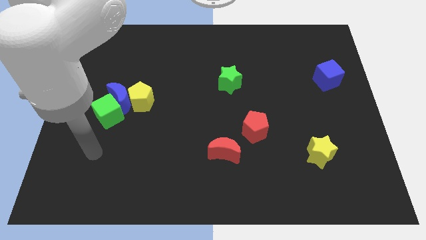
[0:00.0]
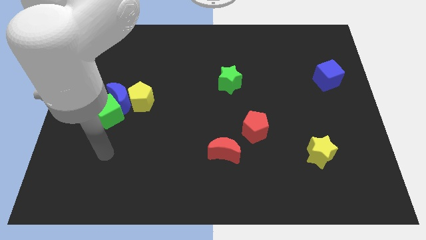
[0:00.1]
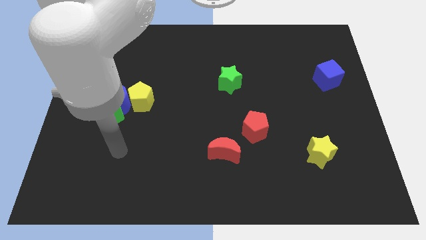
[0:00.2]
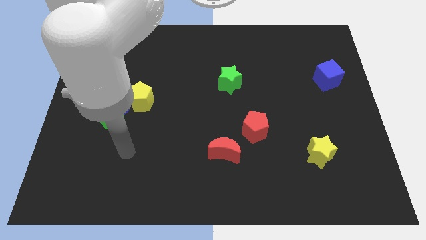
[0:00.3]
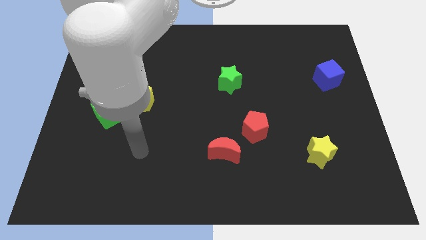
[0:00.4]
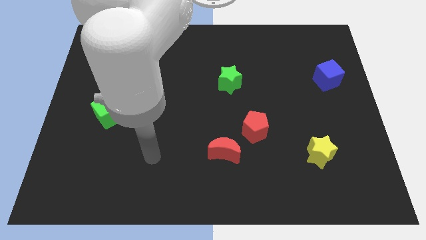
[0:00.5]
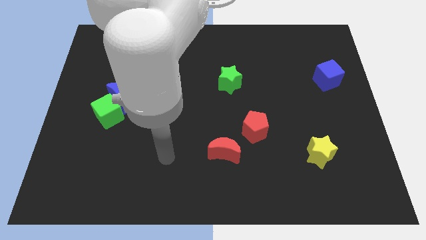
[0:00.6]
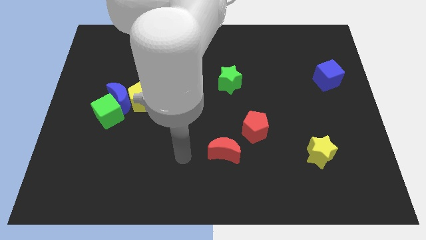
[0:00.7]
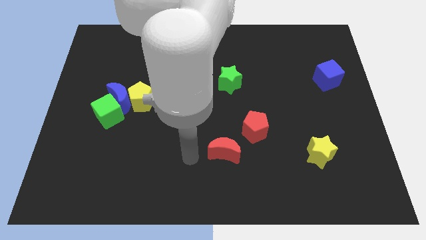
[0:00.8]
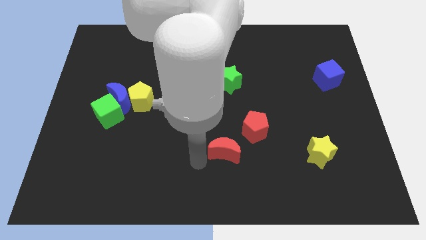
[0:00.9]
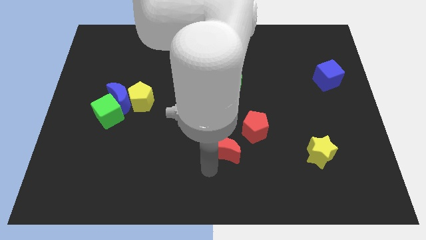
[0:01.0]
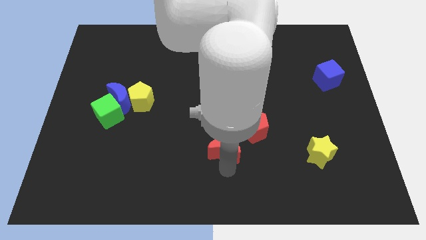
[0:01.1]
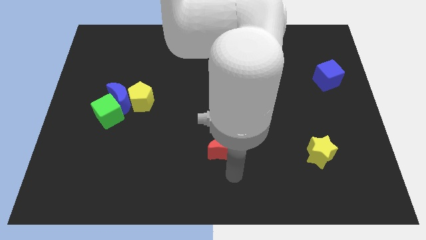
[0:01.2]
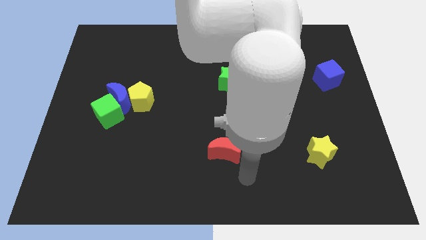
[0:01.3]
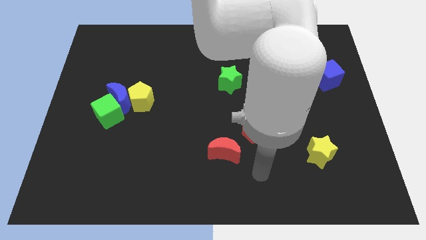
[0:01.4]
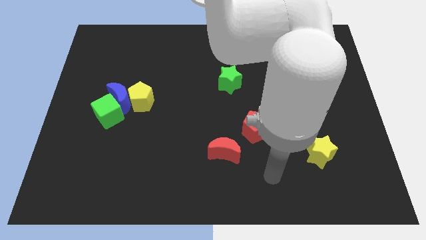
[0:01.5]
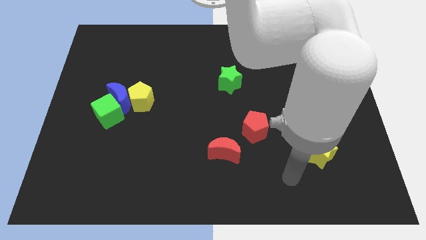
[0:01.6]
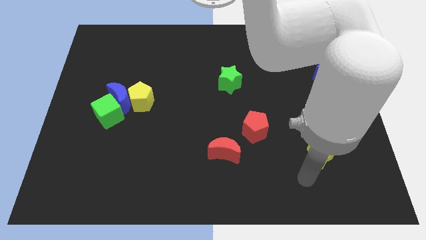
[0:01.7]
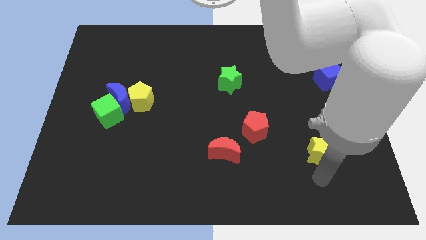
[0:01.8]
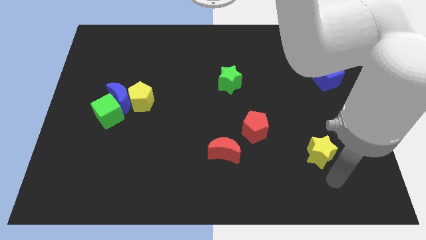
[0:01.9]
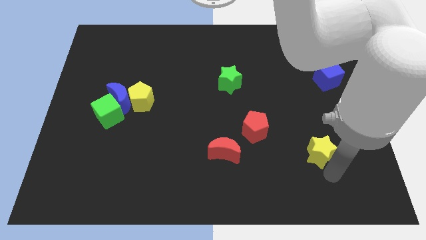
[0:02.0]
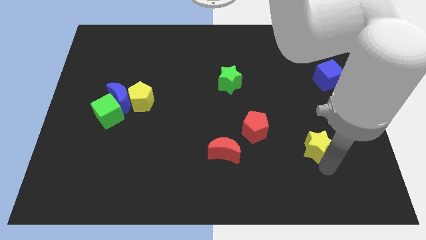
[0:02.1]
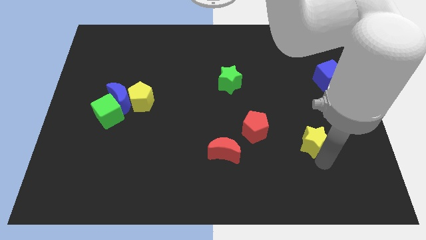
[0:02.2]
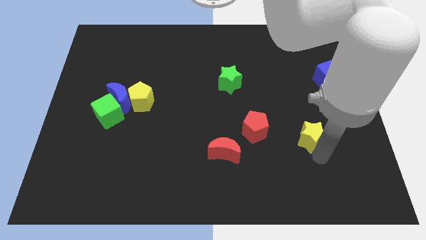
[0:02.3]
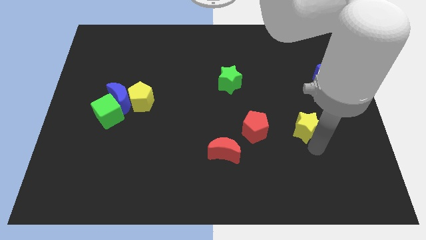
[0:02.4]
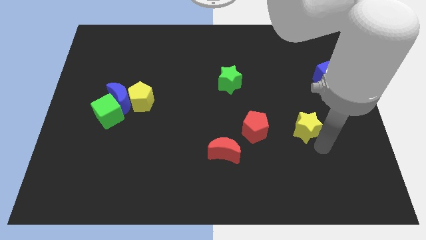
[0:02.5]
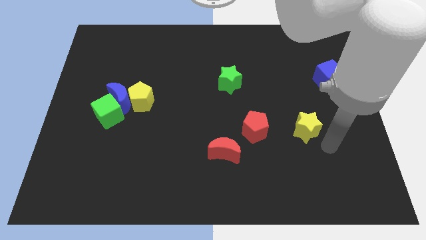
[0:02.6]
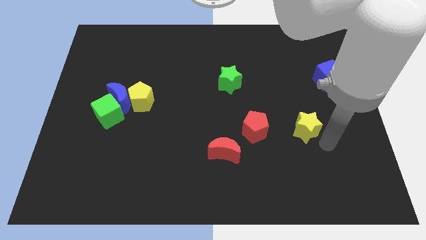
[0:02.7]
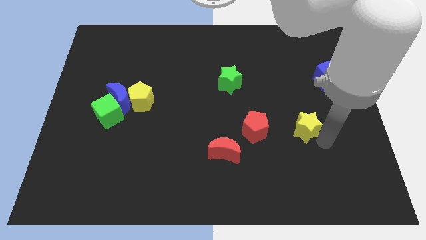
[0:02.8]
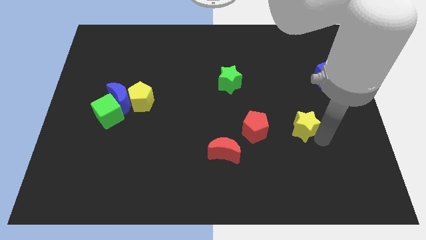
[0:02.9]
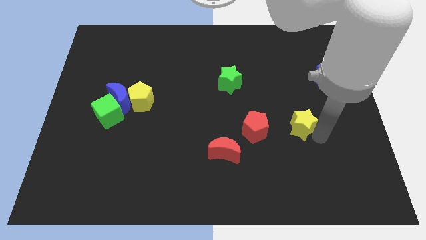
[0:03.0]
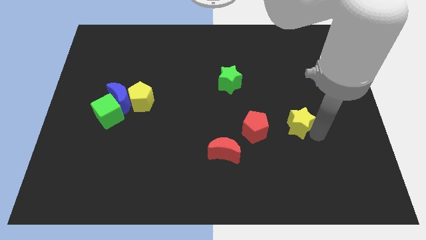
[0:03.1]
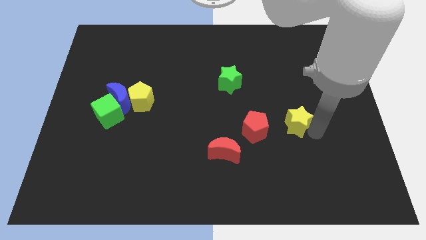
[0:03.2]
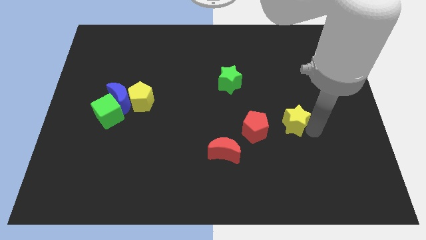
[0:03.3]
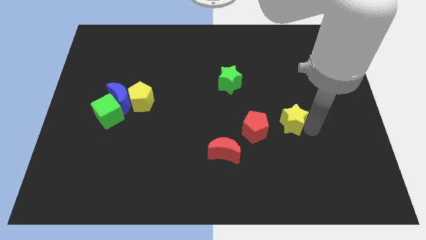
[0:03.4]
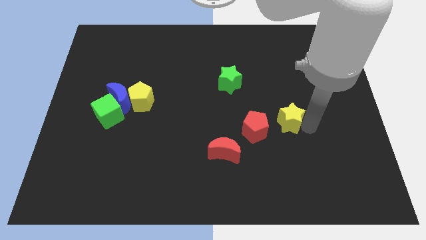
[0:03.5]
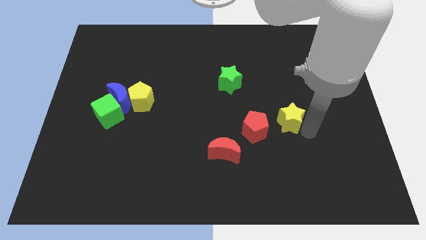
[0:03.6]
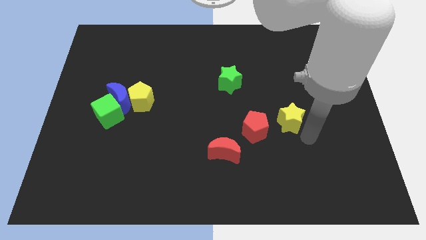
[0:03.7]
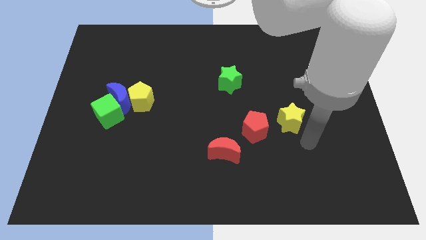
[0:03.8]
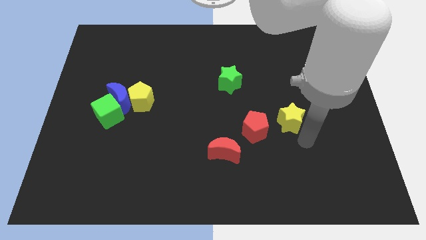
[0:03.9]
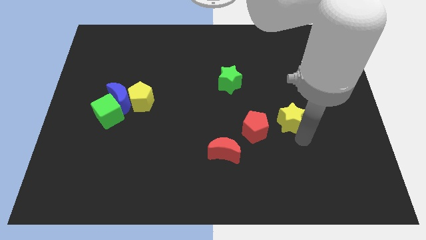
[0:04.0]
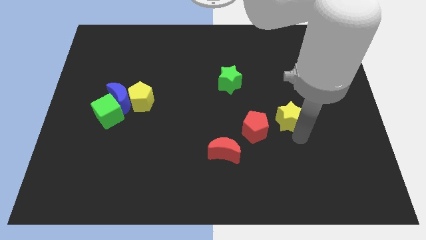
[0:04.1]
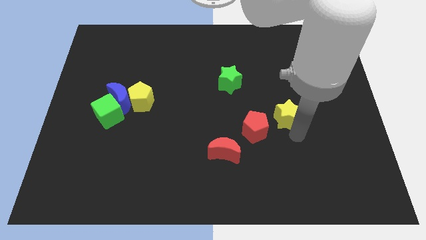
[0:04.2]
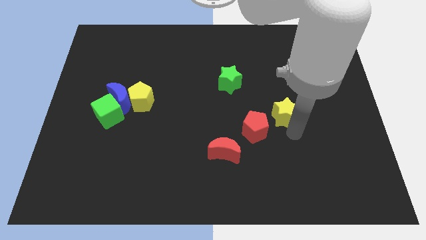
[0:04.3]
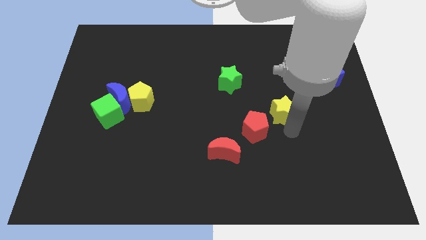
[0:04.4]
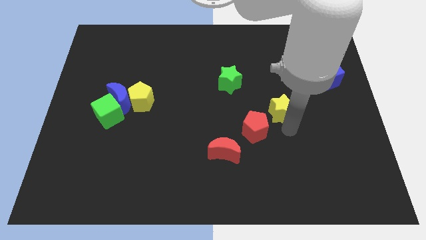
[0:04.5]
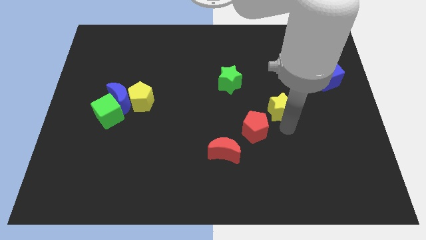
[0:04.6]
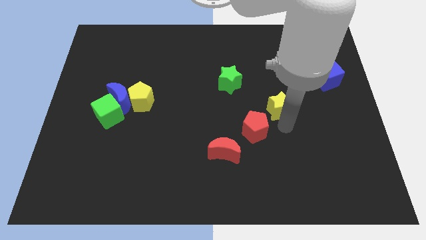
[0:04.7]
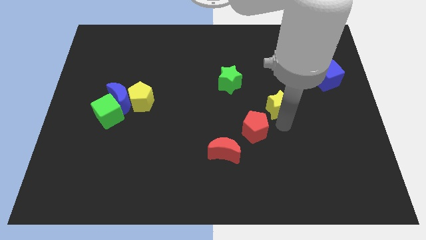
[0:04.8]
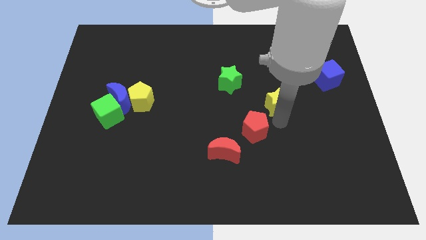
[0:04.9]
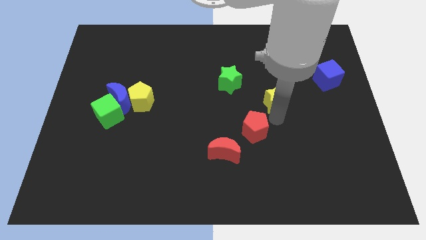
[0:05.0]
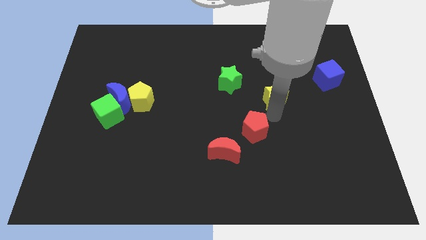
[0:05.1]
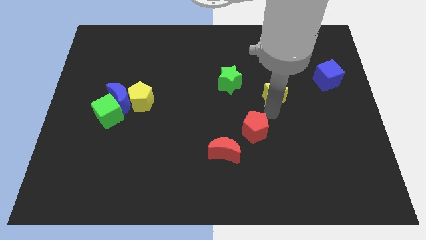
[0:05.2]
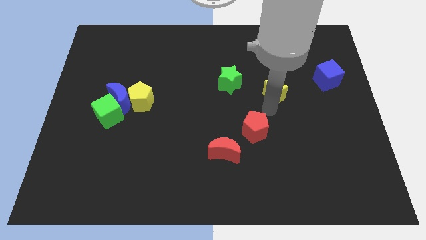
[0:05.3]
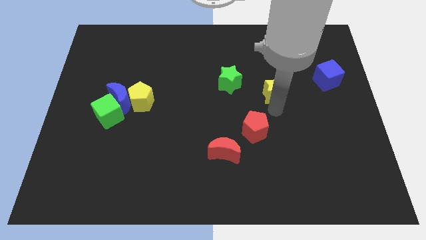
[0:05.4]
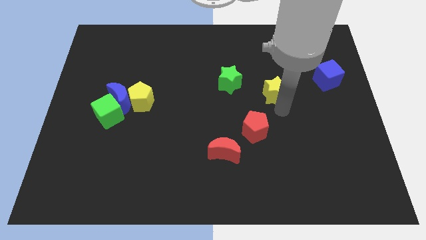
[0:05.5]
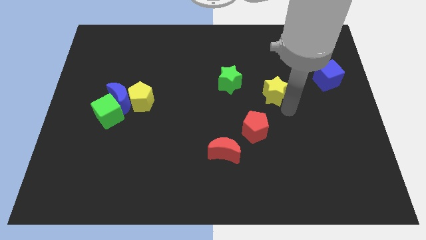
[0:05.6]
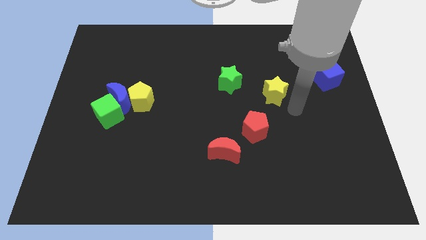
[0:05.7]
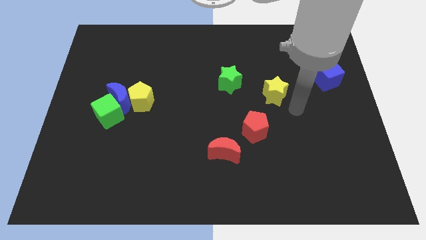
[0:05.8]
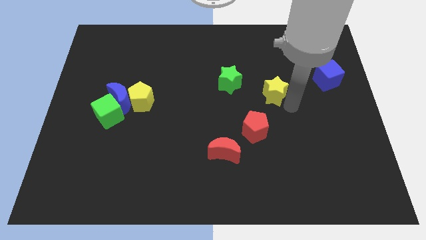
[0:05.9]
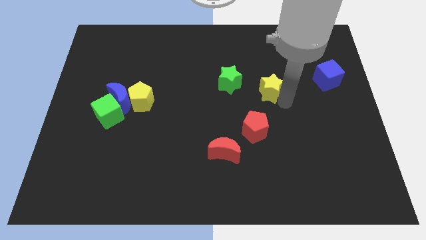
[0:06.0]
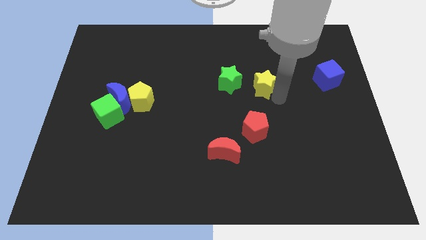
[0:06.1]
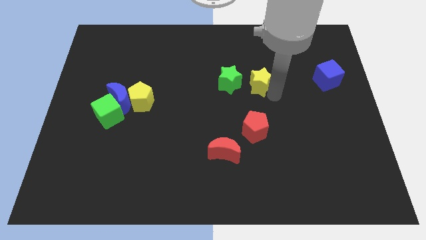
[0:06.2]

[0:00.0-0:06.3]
slide the yellow star diagonally up and left

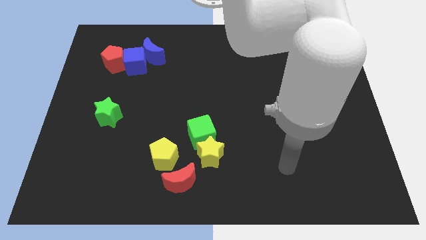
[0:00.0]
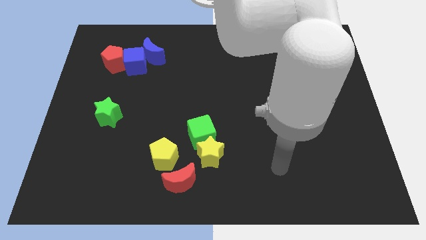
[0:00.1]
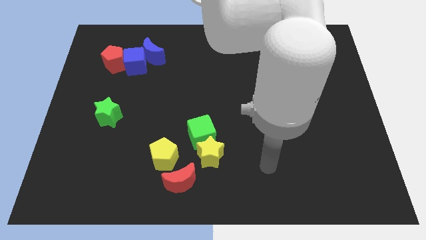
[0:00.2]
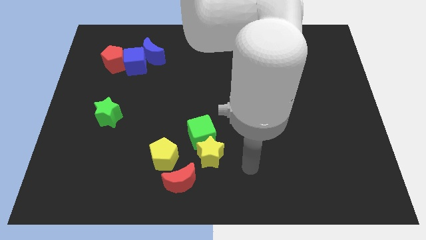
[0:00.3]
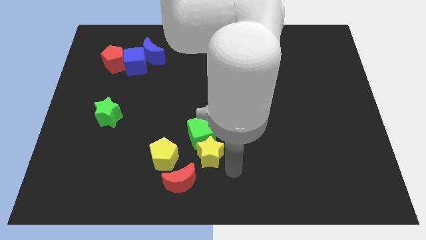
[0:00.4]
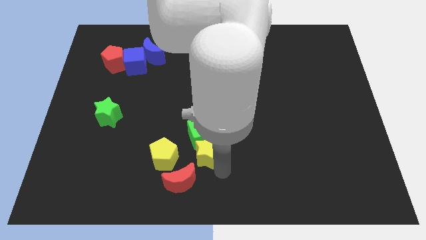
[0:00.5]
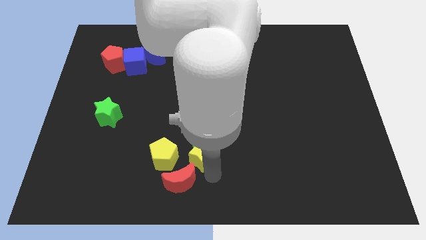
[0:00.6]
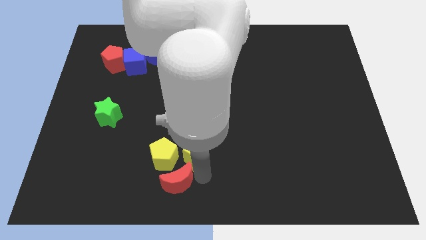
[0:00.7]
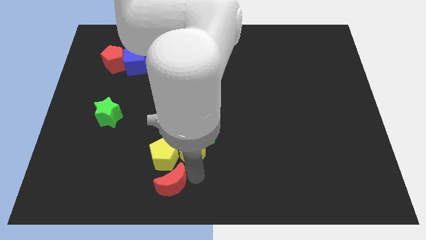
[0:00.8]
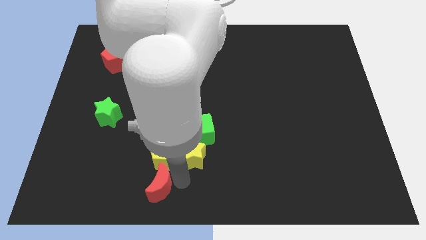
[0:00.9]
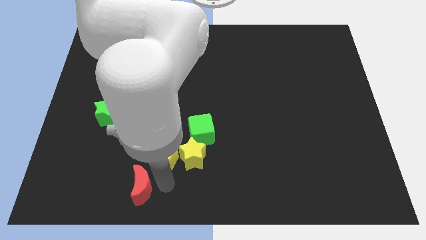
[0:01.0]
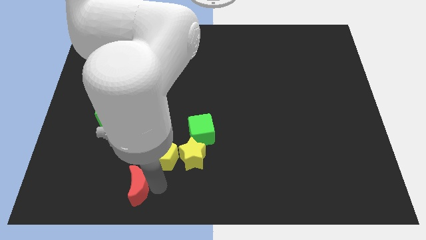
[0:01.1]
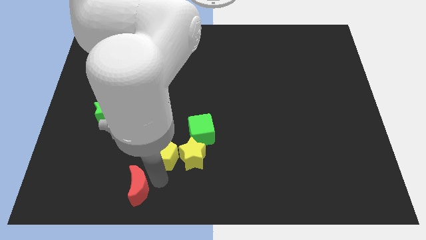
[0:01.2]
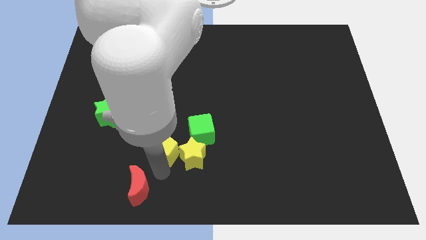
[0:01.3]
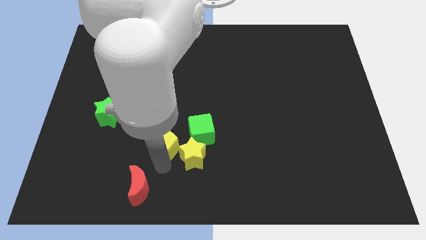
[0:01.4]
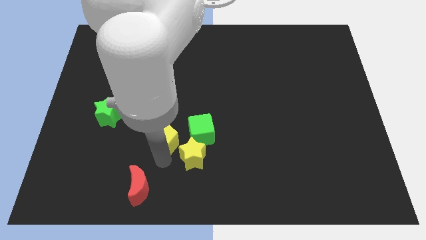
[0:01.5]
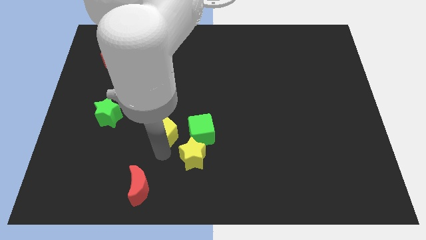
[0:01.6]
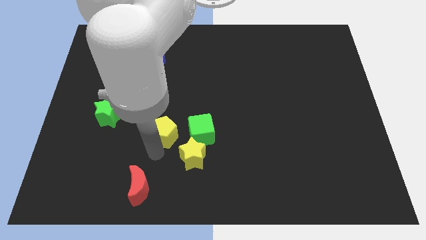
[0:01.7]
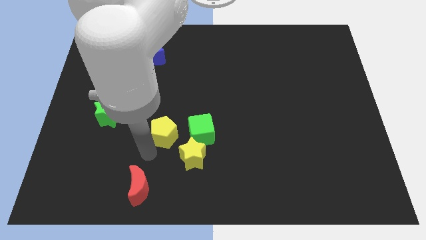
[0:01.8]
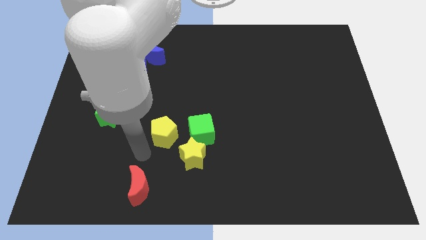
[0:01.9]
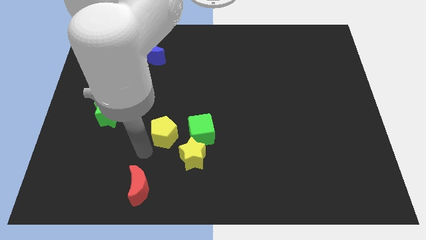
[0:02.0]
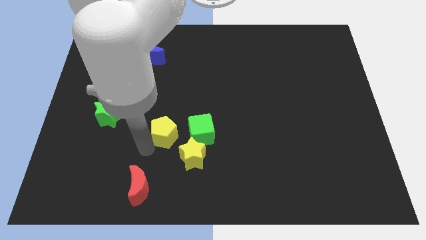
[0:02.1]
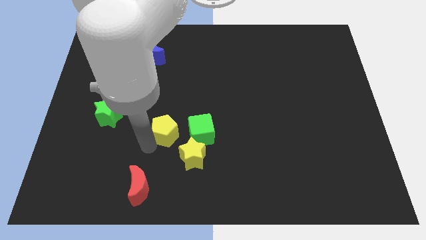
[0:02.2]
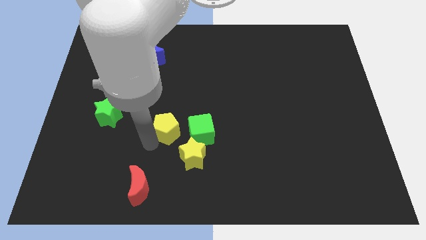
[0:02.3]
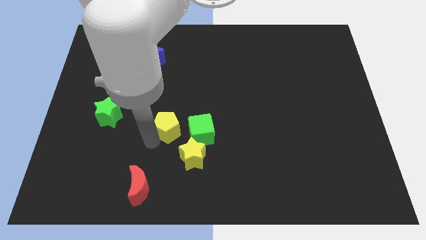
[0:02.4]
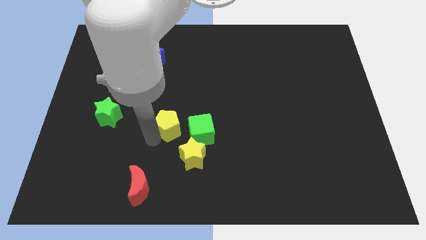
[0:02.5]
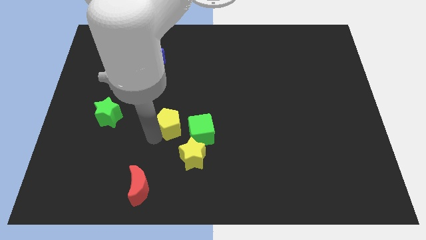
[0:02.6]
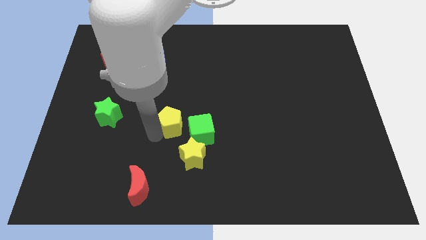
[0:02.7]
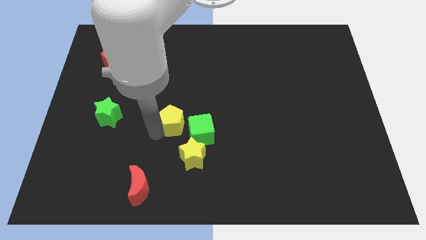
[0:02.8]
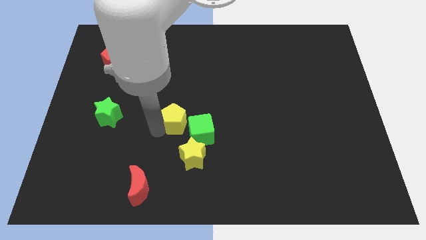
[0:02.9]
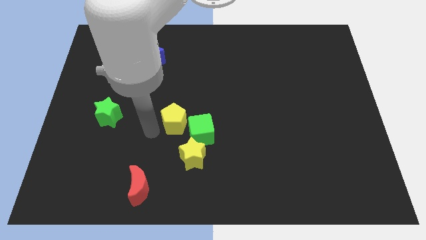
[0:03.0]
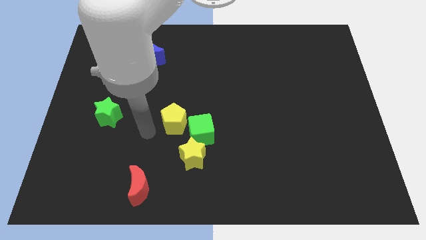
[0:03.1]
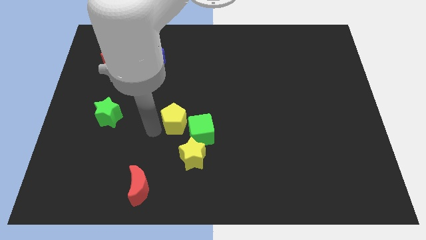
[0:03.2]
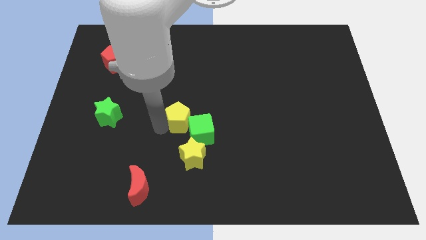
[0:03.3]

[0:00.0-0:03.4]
move the yellow pentagon a little up and then to the right
